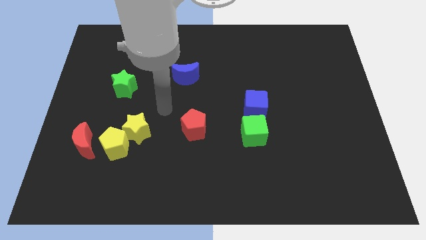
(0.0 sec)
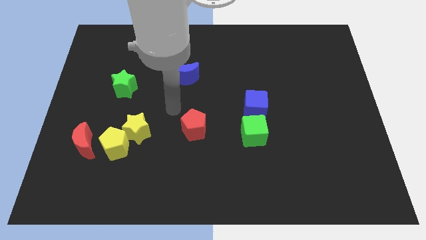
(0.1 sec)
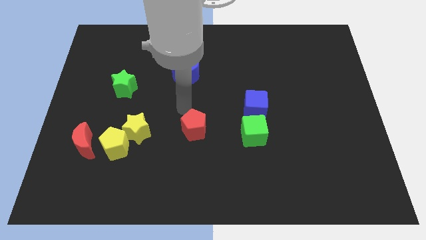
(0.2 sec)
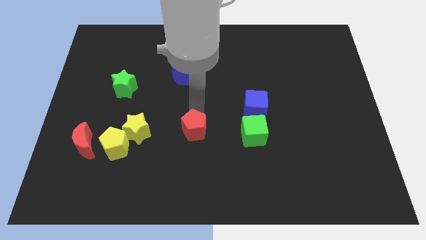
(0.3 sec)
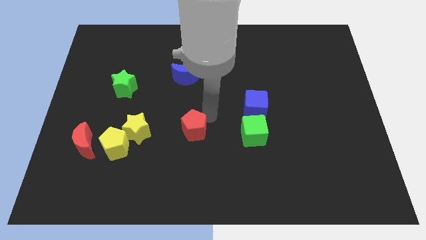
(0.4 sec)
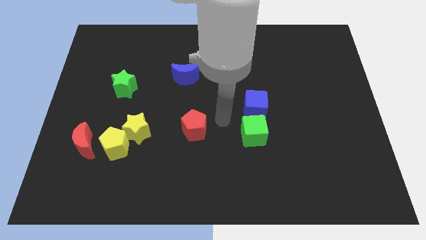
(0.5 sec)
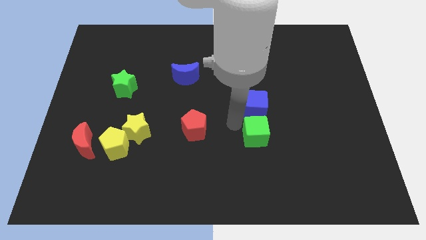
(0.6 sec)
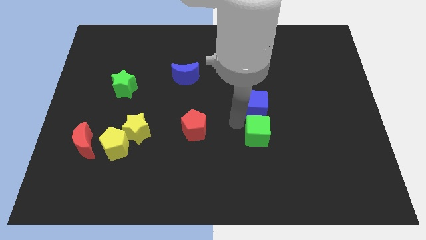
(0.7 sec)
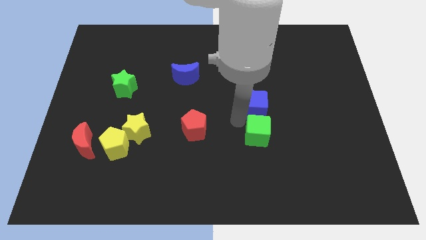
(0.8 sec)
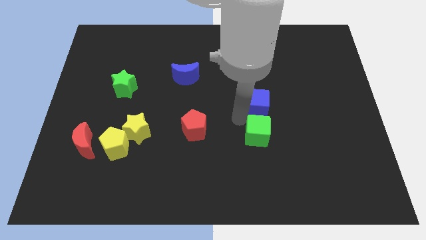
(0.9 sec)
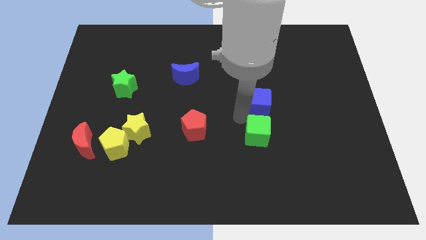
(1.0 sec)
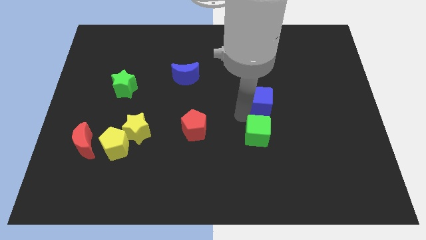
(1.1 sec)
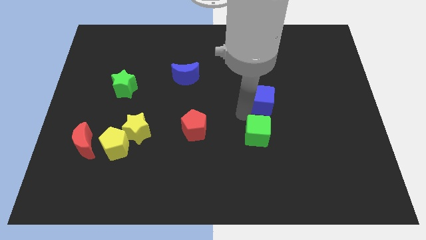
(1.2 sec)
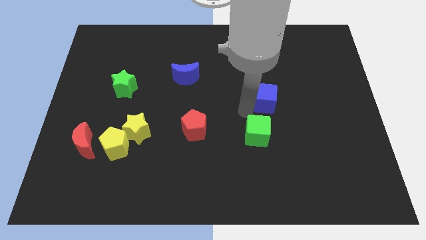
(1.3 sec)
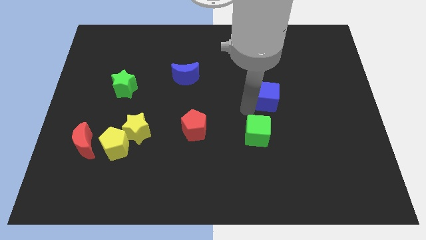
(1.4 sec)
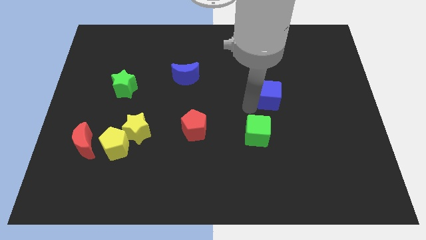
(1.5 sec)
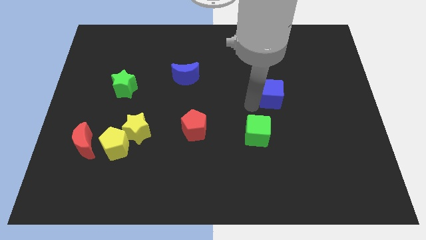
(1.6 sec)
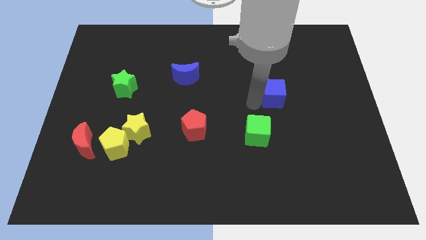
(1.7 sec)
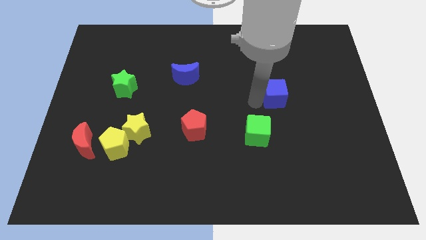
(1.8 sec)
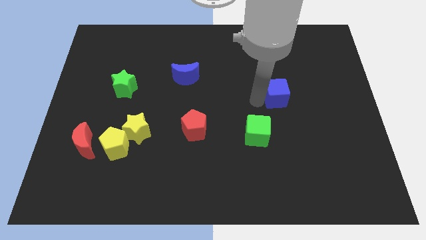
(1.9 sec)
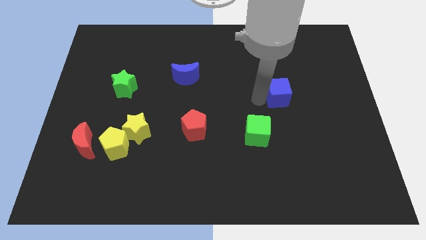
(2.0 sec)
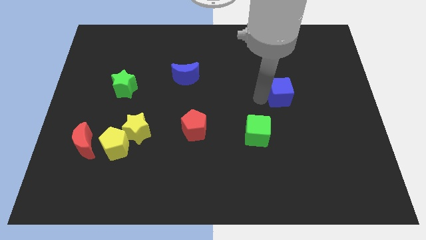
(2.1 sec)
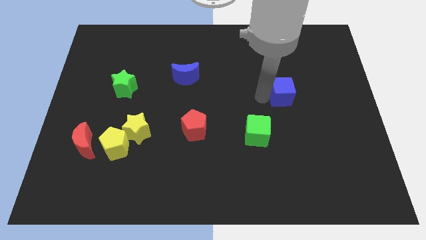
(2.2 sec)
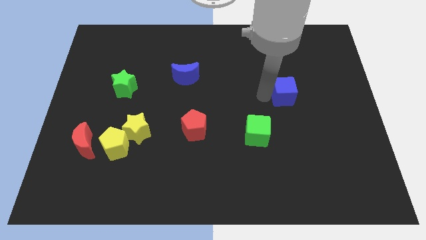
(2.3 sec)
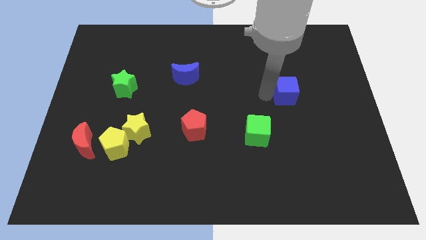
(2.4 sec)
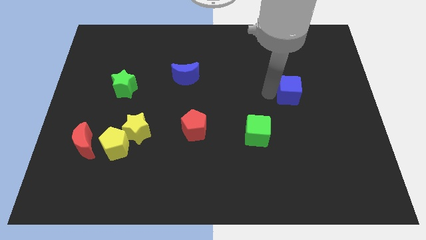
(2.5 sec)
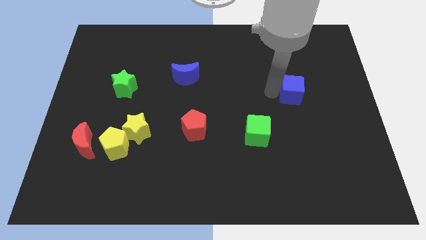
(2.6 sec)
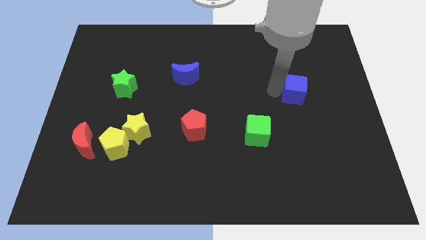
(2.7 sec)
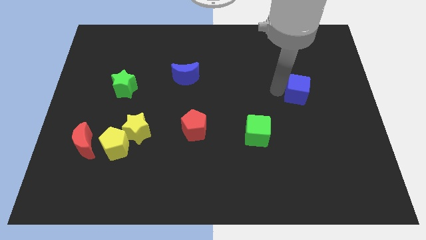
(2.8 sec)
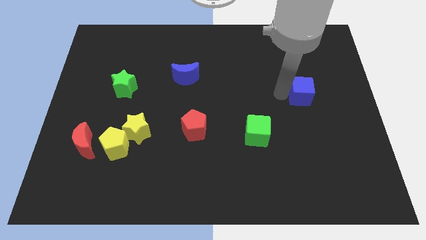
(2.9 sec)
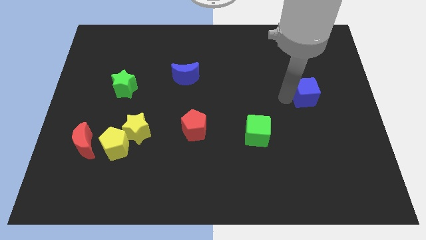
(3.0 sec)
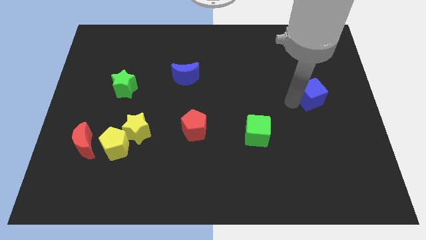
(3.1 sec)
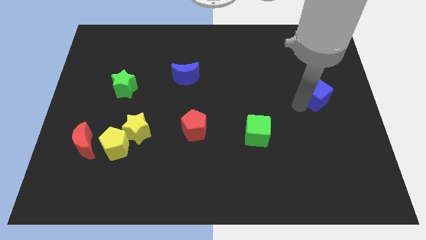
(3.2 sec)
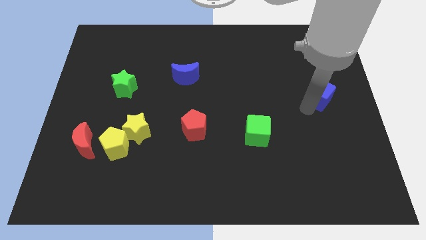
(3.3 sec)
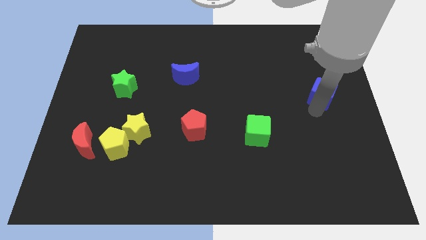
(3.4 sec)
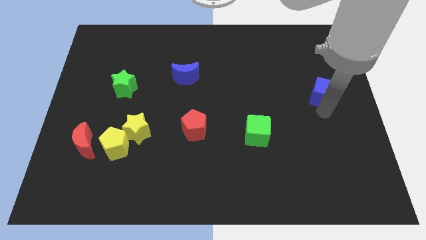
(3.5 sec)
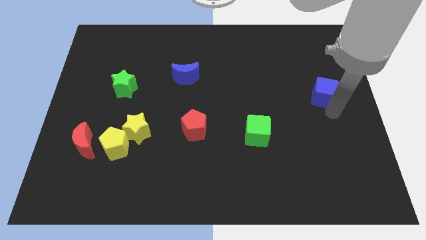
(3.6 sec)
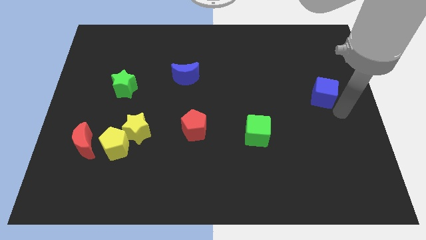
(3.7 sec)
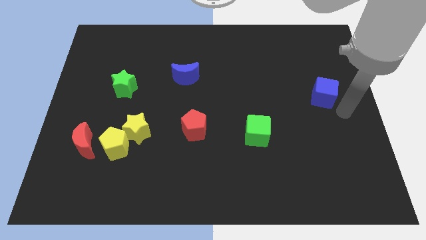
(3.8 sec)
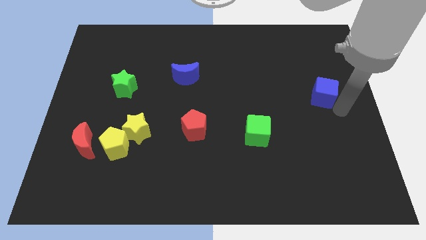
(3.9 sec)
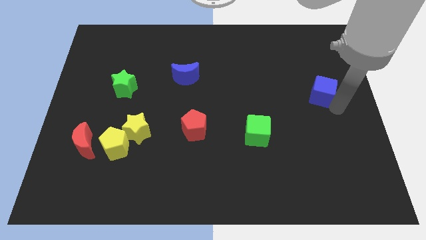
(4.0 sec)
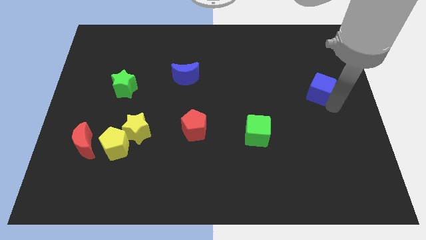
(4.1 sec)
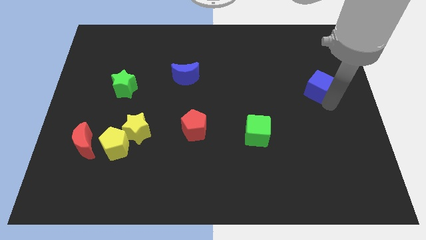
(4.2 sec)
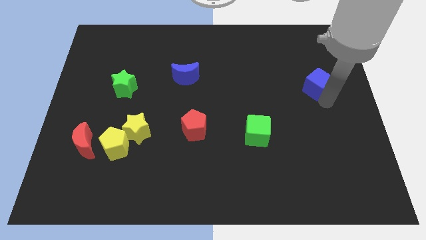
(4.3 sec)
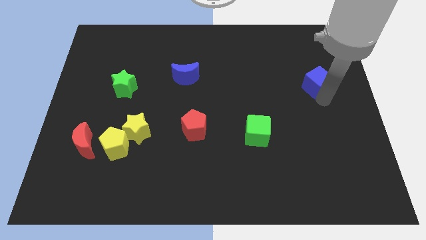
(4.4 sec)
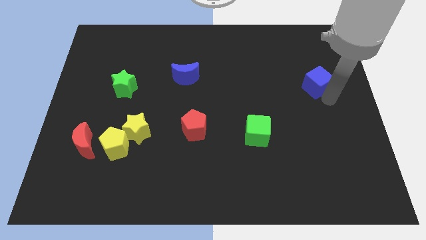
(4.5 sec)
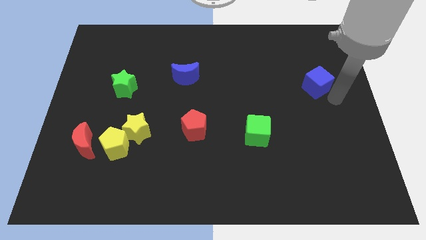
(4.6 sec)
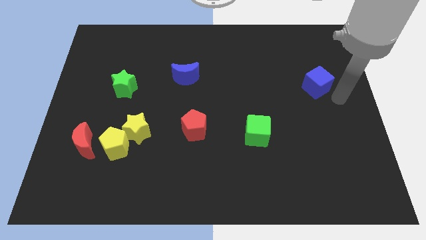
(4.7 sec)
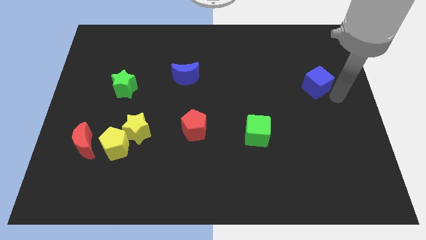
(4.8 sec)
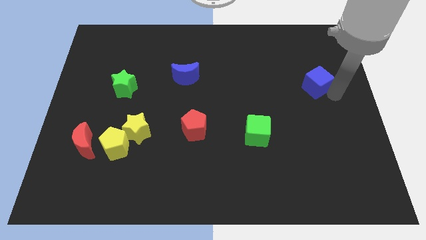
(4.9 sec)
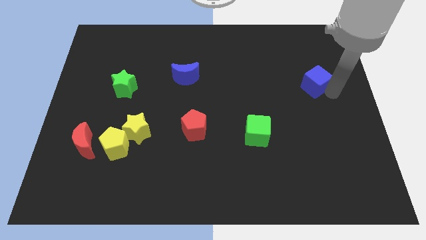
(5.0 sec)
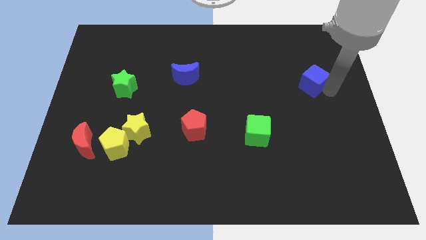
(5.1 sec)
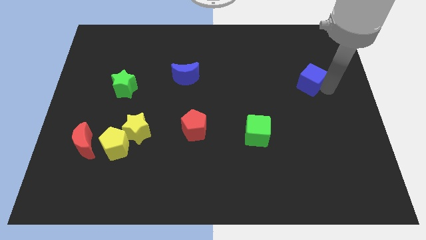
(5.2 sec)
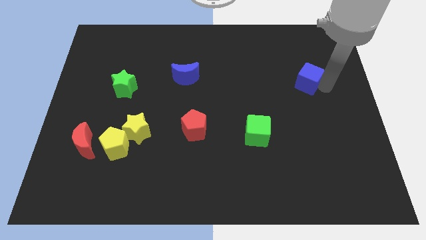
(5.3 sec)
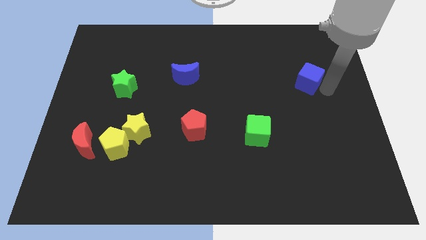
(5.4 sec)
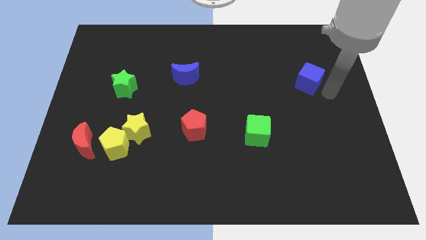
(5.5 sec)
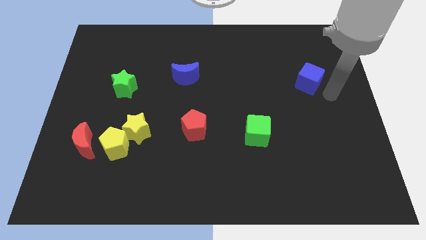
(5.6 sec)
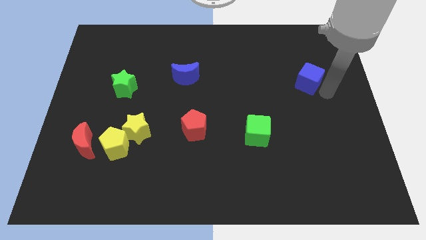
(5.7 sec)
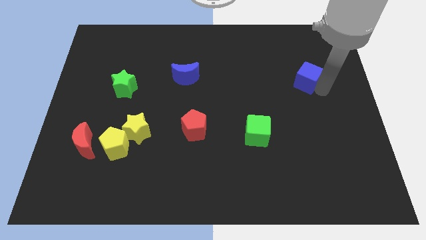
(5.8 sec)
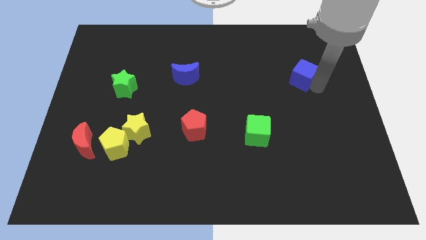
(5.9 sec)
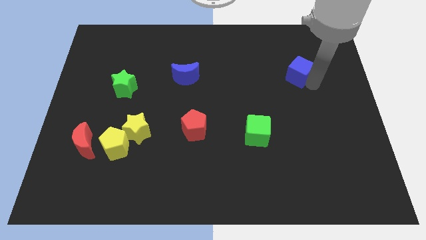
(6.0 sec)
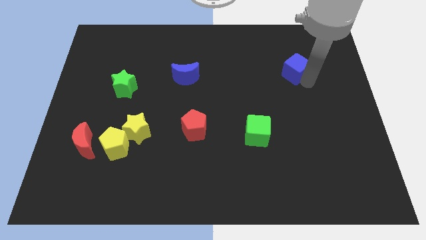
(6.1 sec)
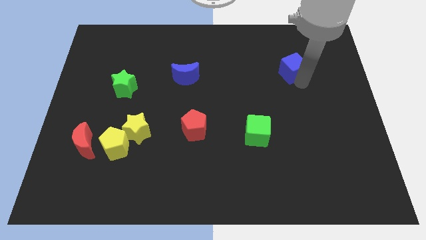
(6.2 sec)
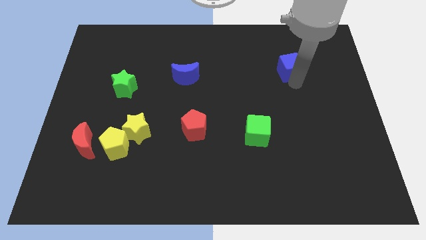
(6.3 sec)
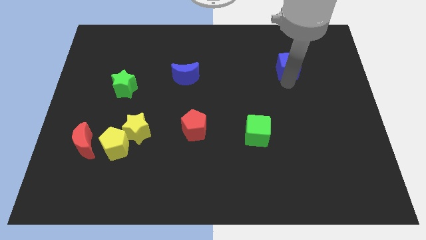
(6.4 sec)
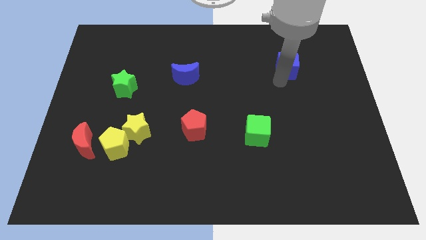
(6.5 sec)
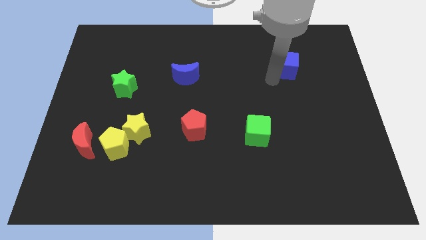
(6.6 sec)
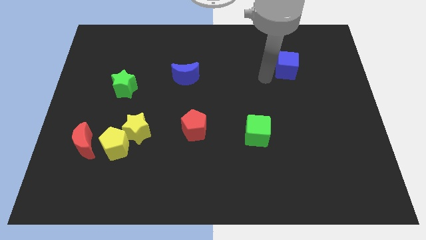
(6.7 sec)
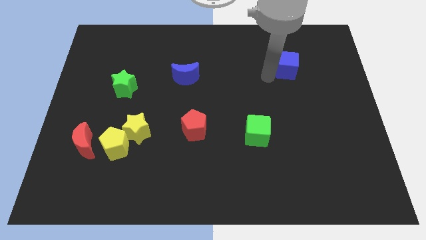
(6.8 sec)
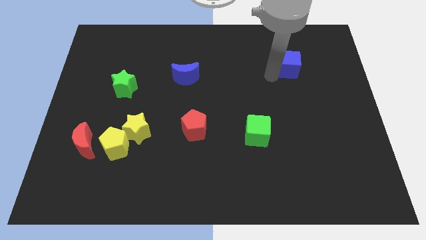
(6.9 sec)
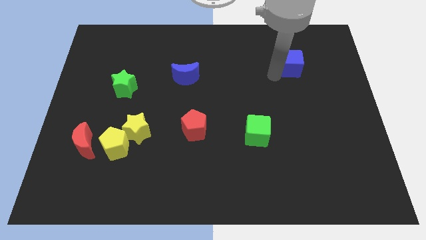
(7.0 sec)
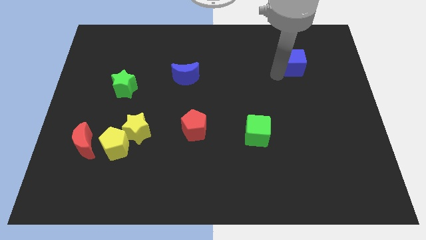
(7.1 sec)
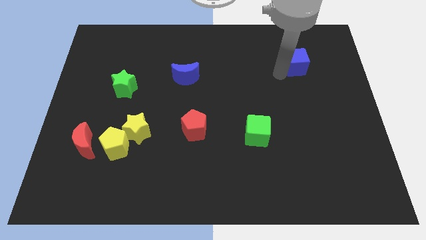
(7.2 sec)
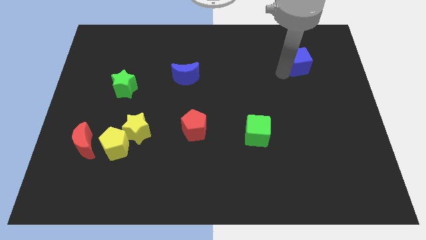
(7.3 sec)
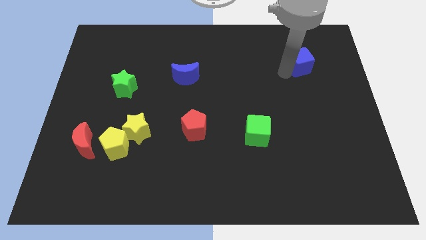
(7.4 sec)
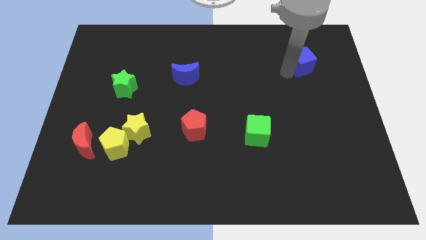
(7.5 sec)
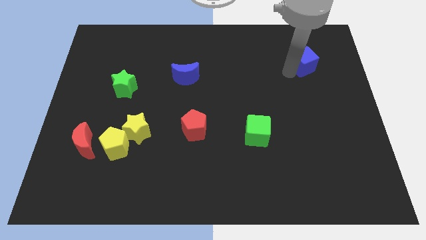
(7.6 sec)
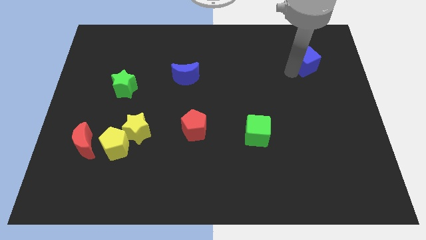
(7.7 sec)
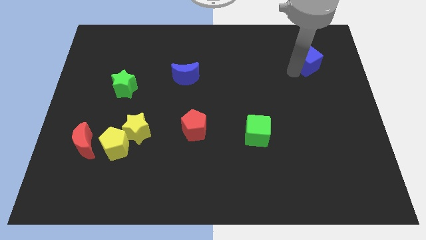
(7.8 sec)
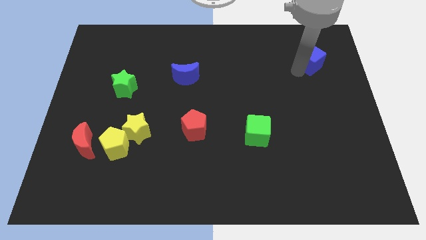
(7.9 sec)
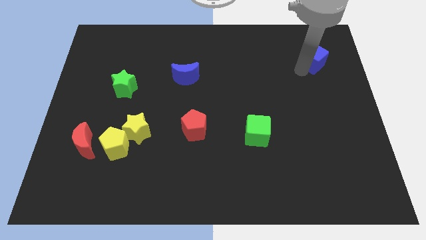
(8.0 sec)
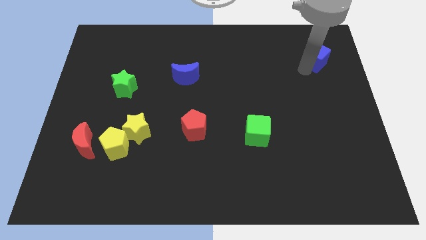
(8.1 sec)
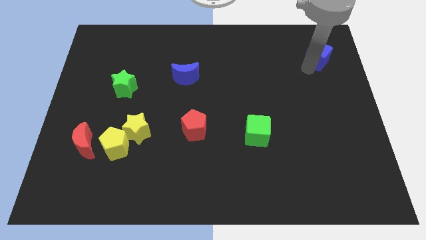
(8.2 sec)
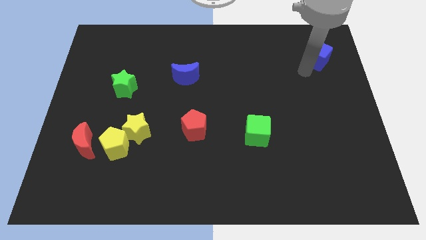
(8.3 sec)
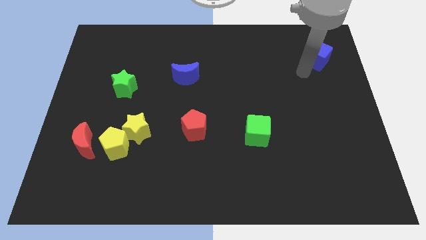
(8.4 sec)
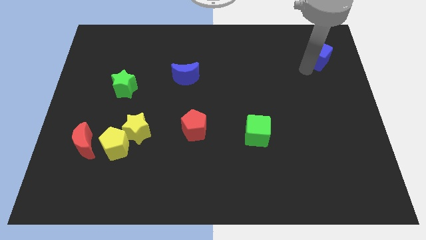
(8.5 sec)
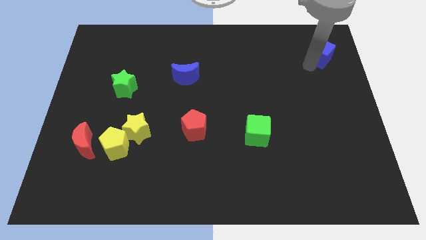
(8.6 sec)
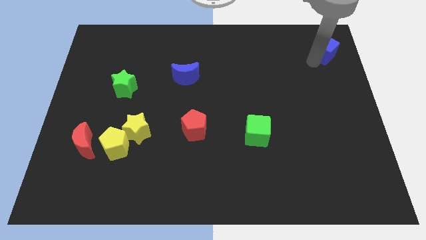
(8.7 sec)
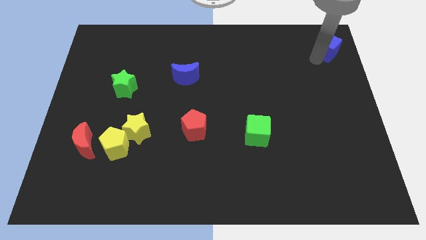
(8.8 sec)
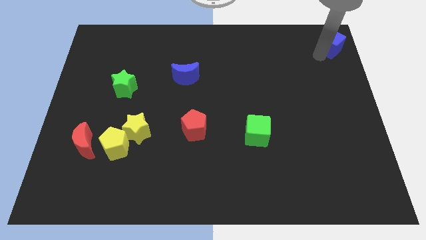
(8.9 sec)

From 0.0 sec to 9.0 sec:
push the blue cube to the upper right corner
